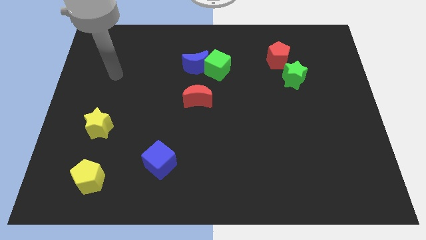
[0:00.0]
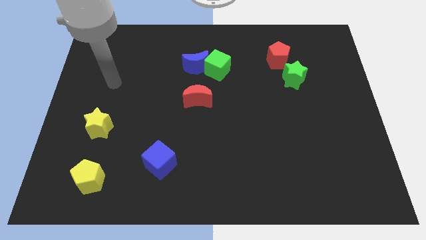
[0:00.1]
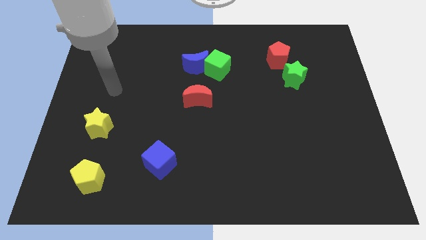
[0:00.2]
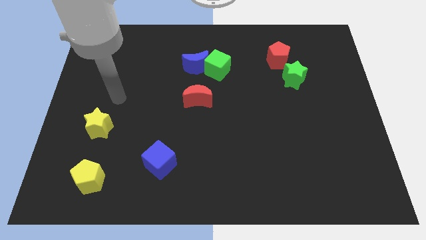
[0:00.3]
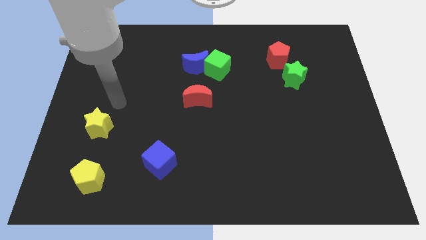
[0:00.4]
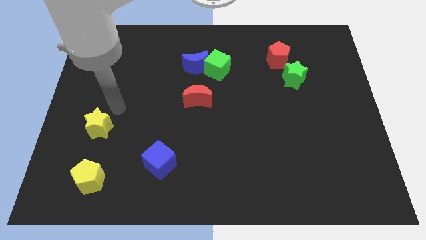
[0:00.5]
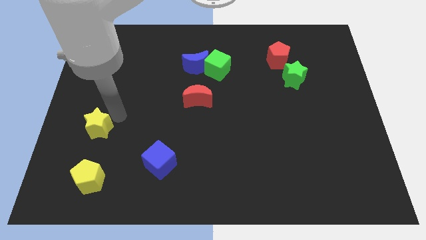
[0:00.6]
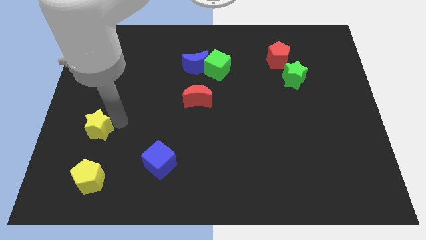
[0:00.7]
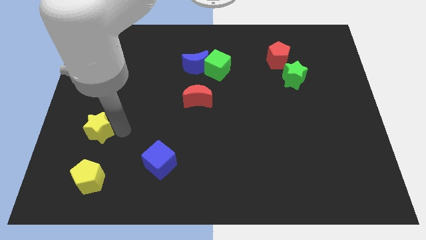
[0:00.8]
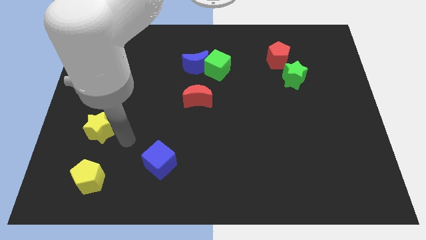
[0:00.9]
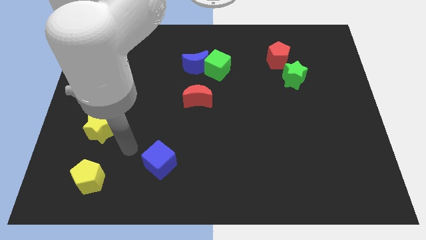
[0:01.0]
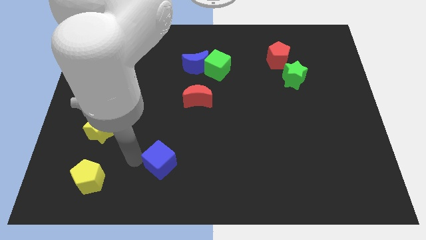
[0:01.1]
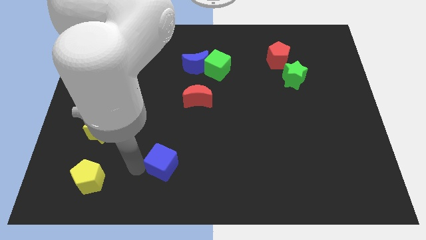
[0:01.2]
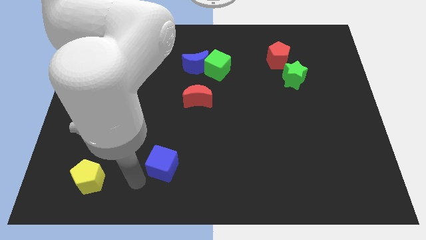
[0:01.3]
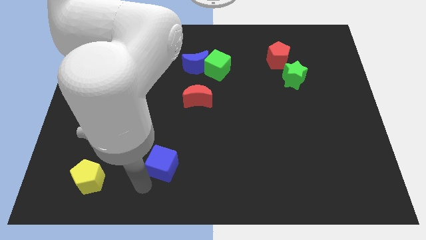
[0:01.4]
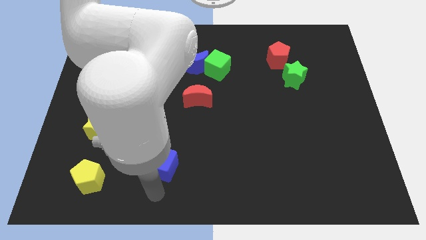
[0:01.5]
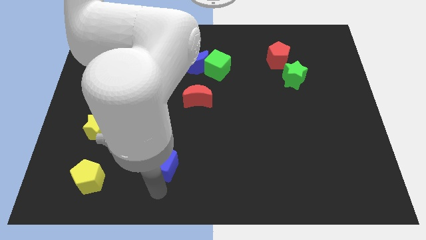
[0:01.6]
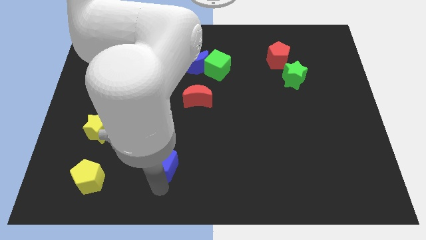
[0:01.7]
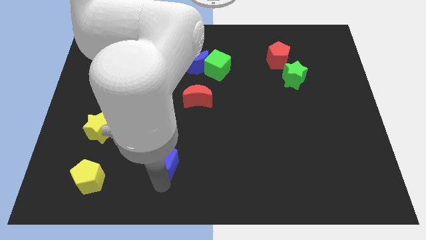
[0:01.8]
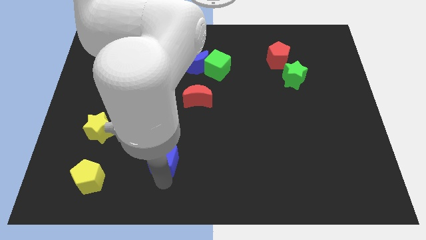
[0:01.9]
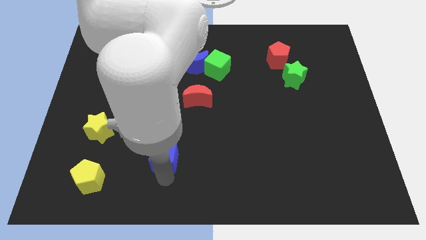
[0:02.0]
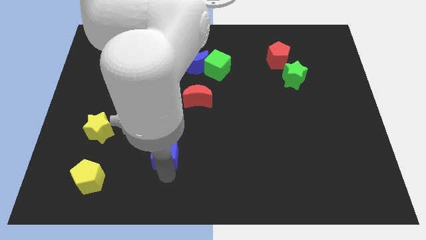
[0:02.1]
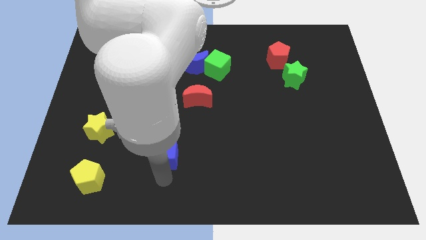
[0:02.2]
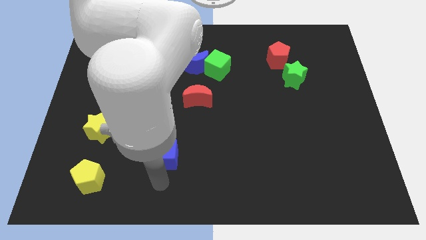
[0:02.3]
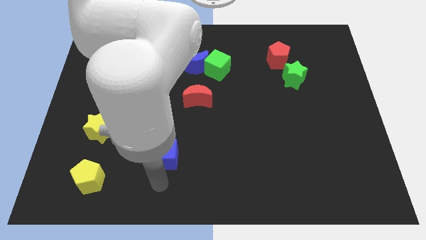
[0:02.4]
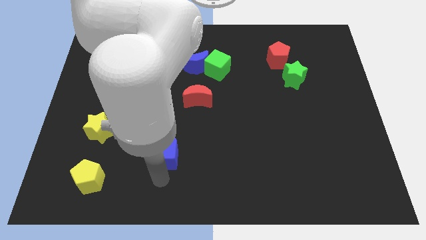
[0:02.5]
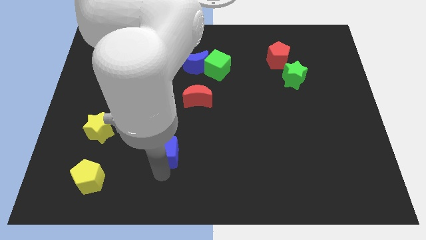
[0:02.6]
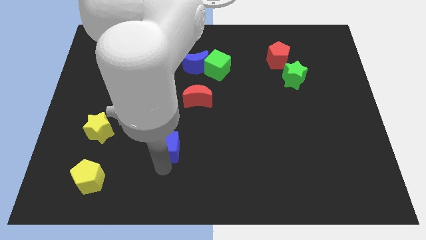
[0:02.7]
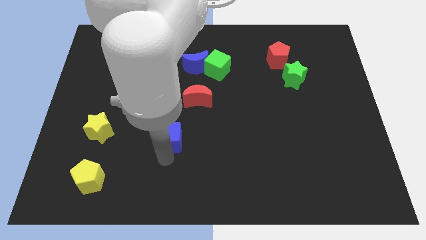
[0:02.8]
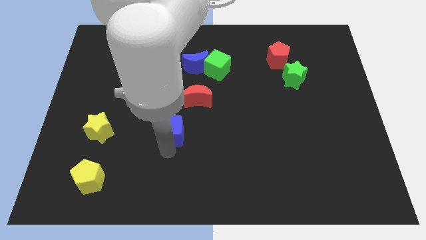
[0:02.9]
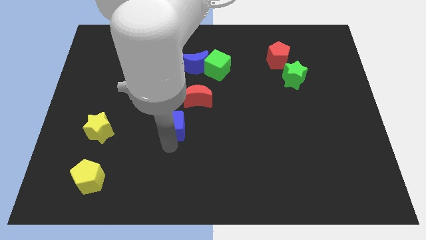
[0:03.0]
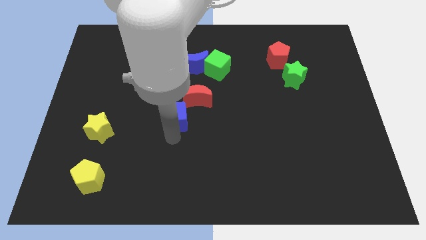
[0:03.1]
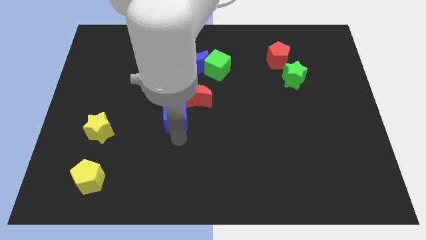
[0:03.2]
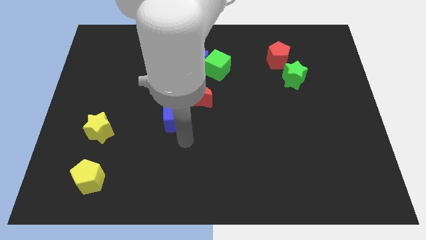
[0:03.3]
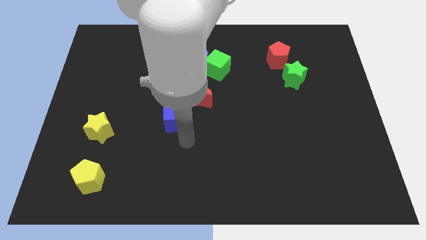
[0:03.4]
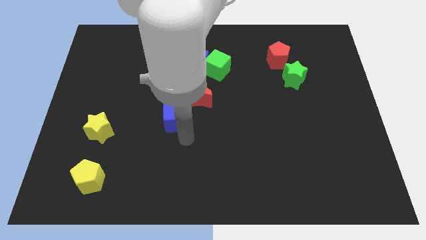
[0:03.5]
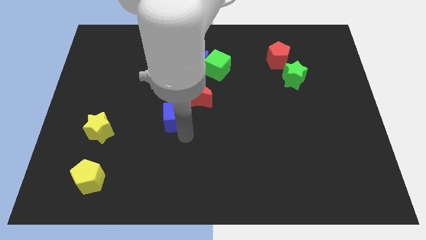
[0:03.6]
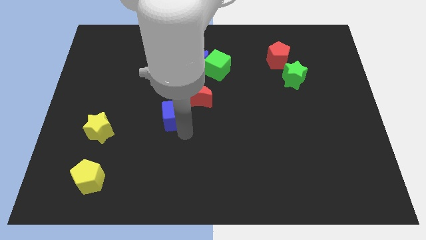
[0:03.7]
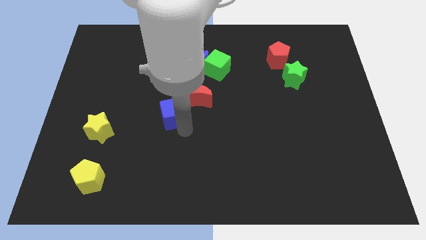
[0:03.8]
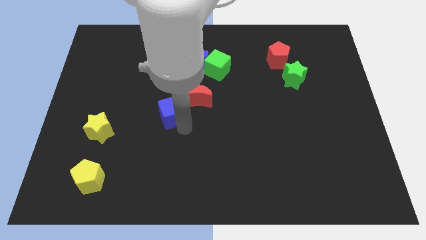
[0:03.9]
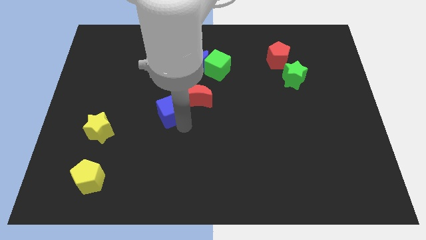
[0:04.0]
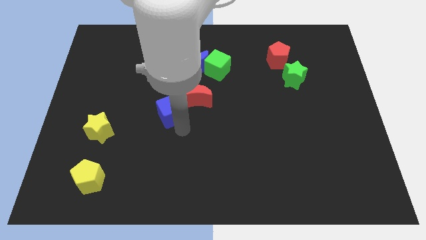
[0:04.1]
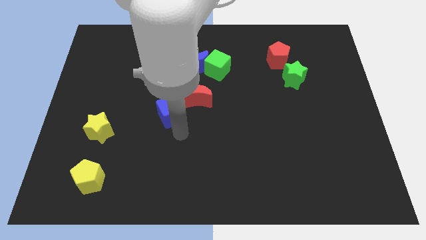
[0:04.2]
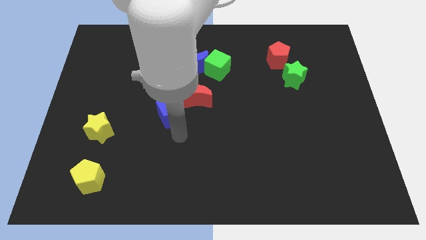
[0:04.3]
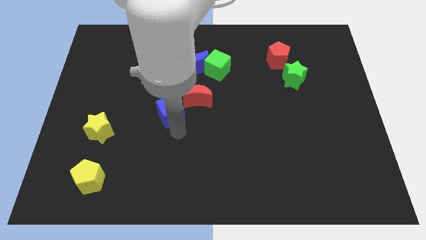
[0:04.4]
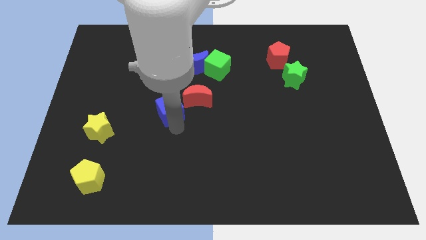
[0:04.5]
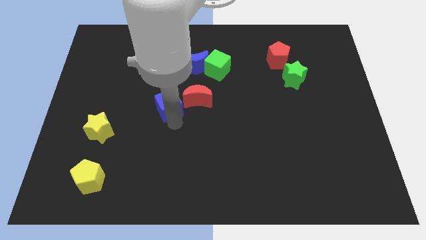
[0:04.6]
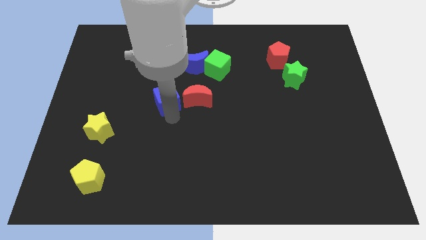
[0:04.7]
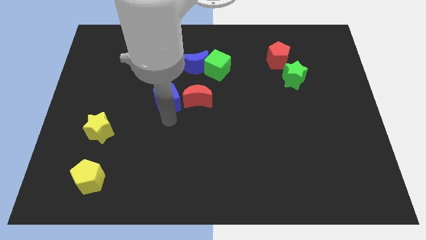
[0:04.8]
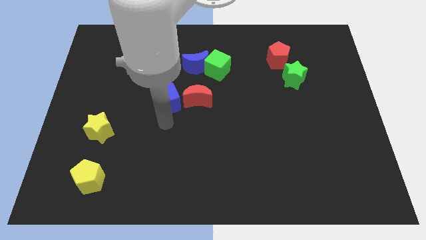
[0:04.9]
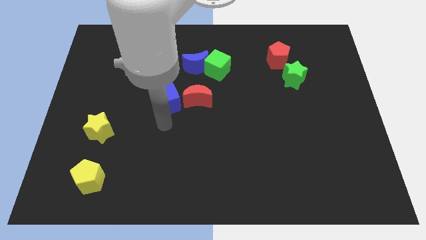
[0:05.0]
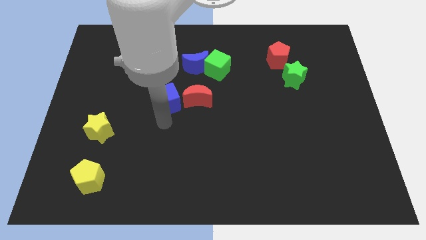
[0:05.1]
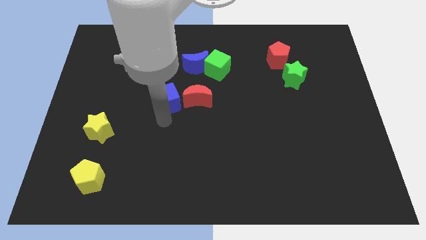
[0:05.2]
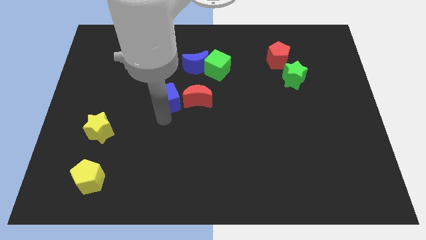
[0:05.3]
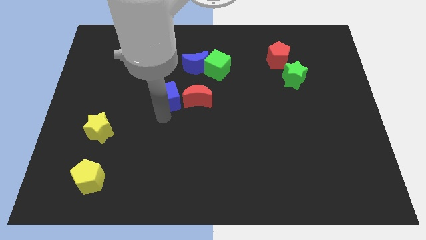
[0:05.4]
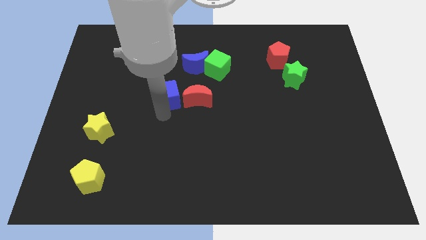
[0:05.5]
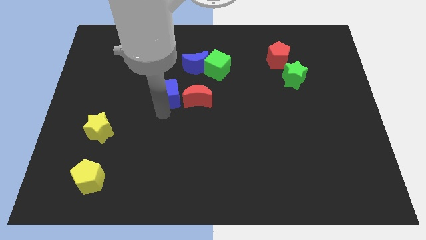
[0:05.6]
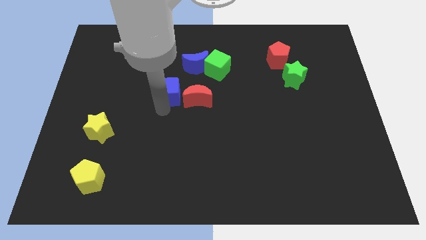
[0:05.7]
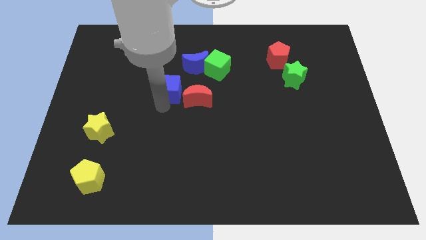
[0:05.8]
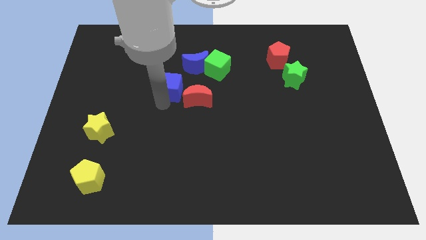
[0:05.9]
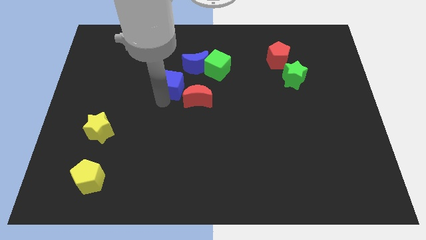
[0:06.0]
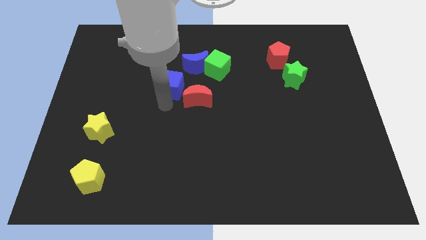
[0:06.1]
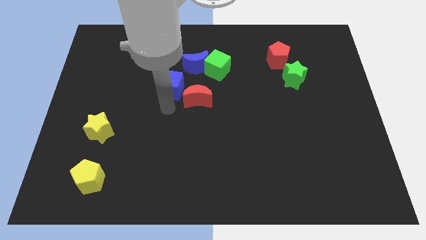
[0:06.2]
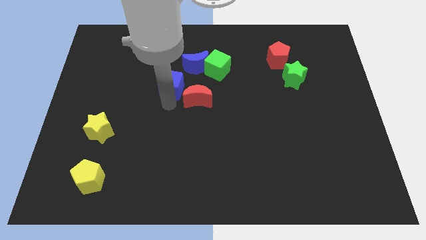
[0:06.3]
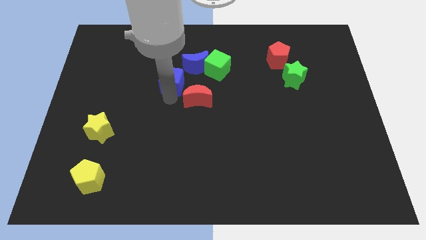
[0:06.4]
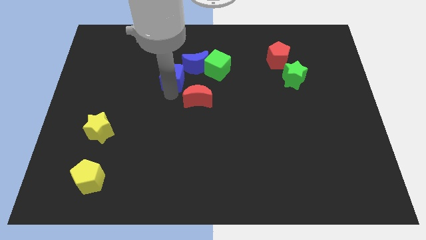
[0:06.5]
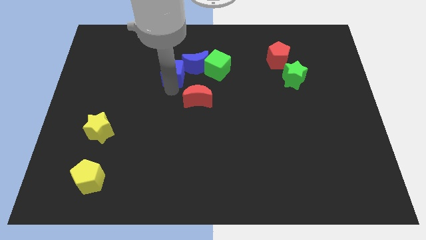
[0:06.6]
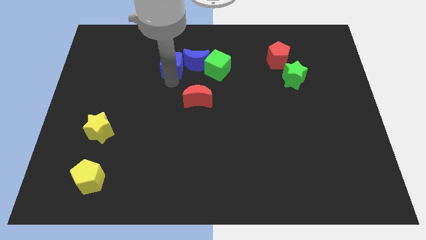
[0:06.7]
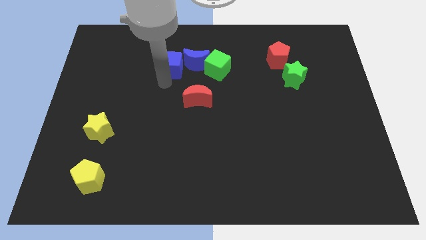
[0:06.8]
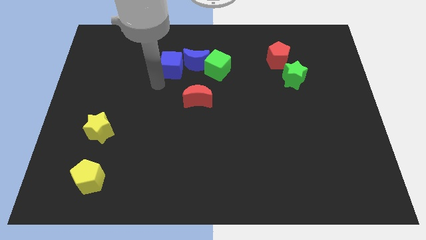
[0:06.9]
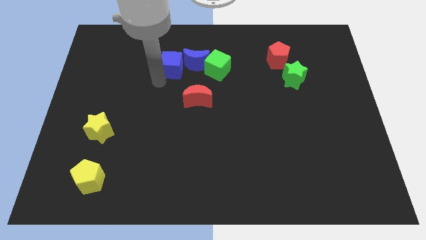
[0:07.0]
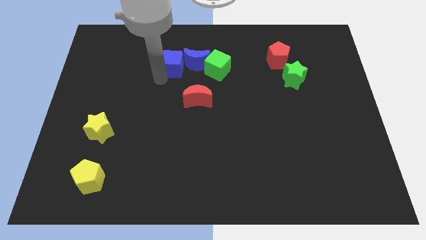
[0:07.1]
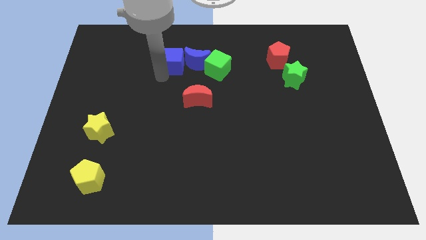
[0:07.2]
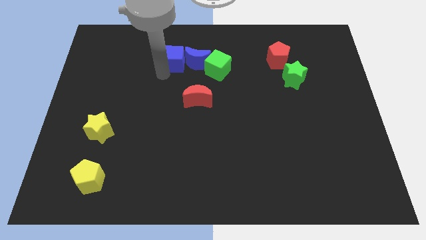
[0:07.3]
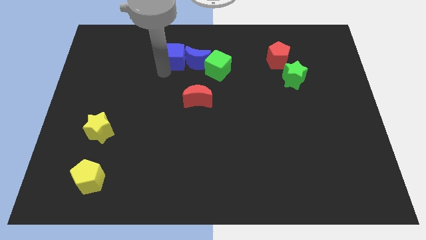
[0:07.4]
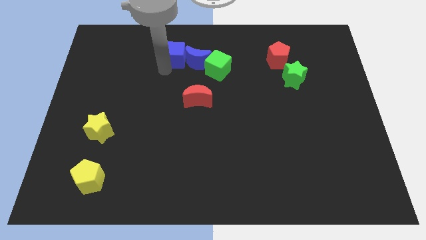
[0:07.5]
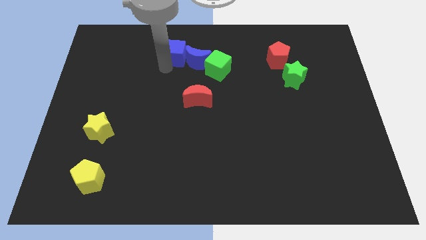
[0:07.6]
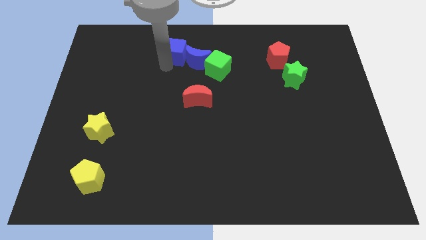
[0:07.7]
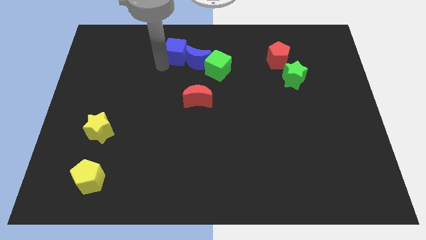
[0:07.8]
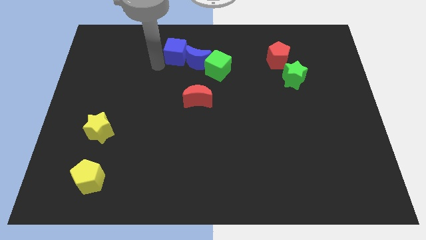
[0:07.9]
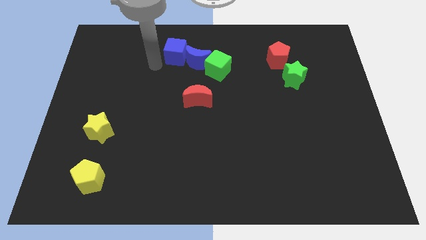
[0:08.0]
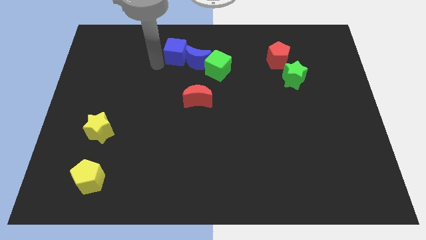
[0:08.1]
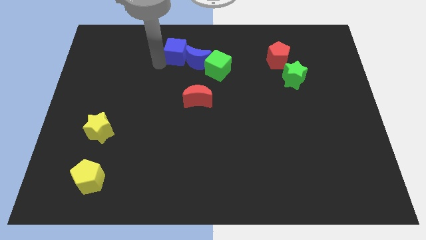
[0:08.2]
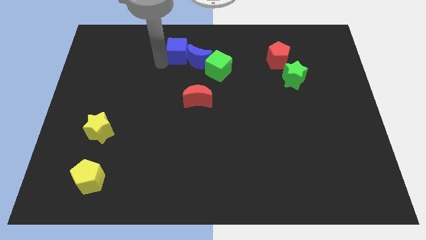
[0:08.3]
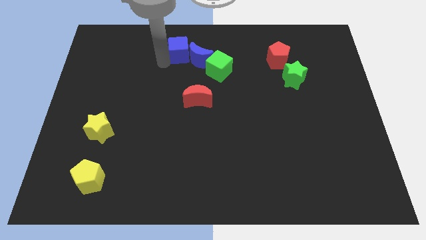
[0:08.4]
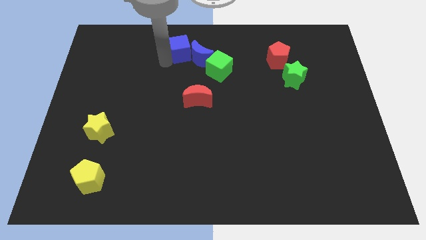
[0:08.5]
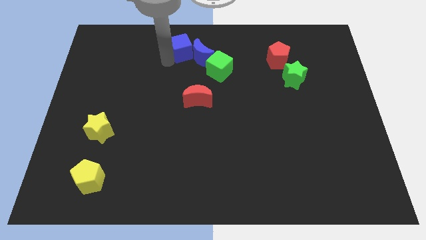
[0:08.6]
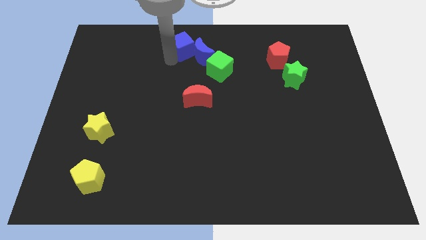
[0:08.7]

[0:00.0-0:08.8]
move the blue cube to the top side
